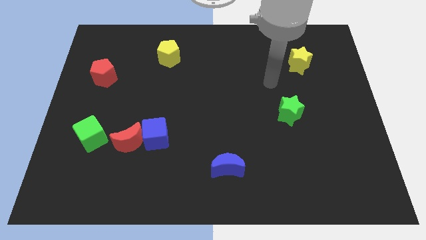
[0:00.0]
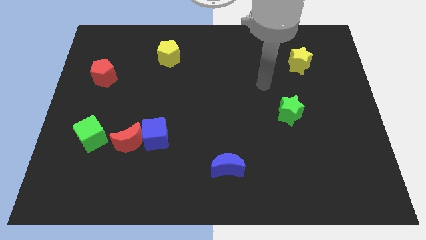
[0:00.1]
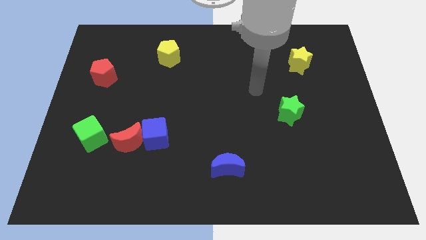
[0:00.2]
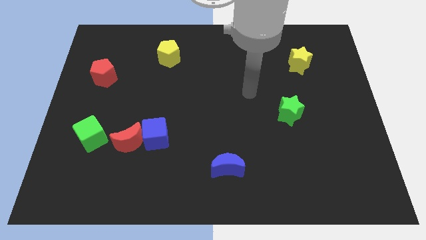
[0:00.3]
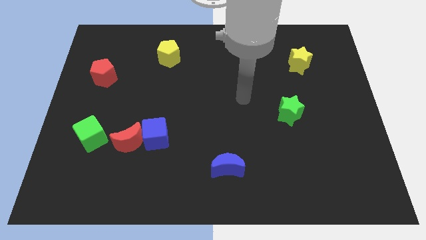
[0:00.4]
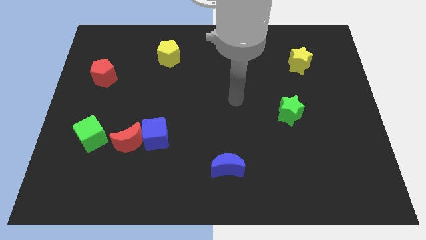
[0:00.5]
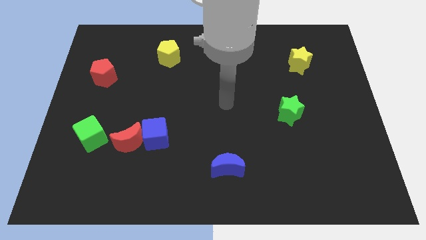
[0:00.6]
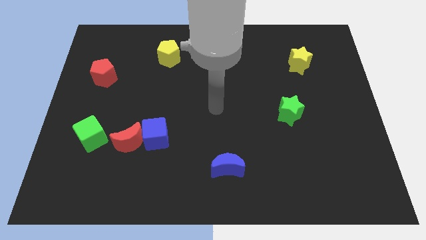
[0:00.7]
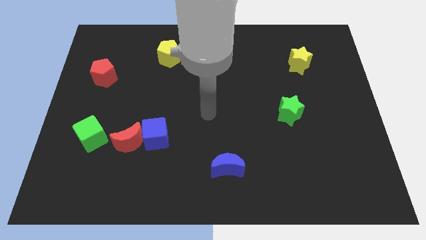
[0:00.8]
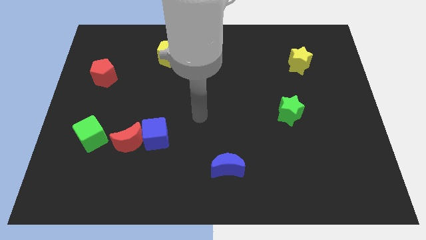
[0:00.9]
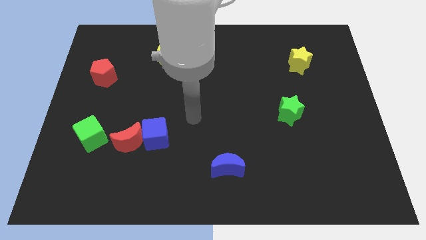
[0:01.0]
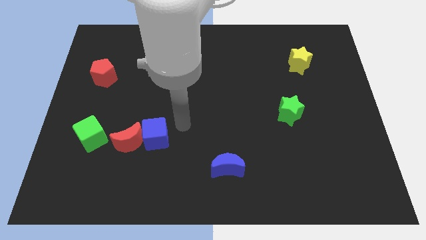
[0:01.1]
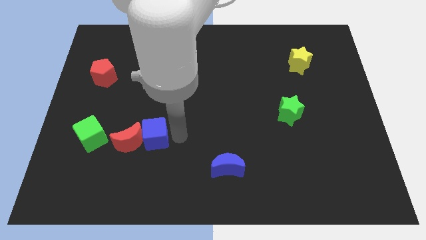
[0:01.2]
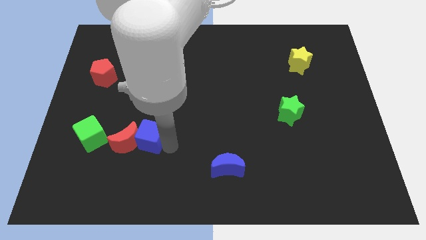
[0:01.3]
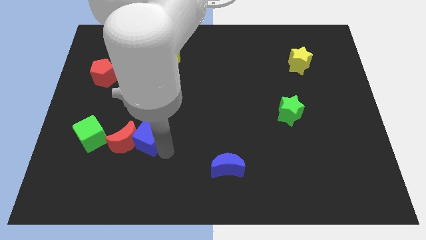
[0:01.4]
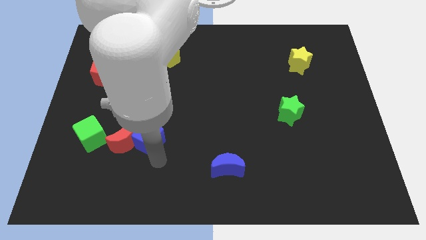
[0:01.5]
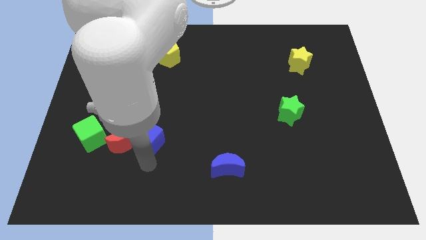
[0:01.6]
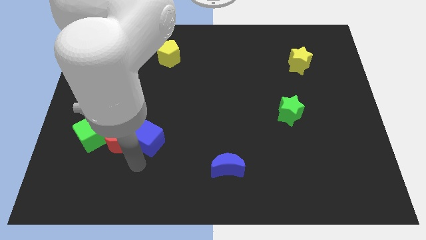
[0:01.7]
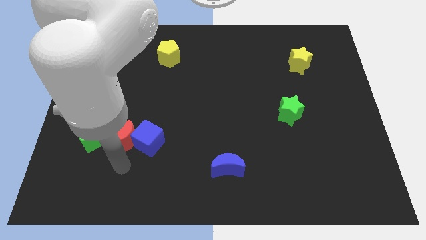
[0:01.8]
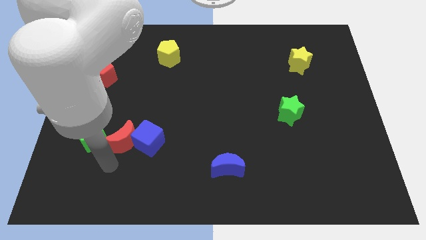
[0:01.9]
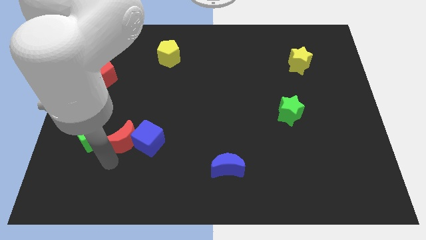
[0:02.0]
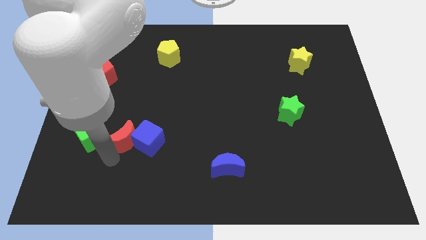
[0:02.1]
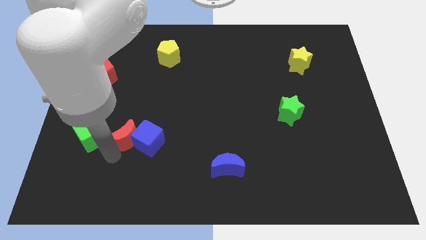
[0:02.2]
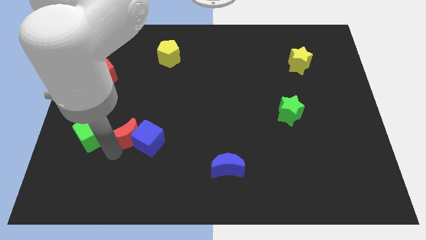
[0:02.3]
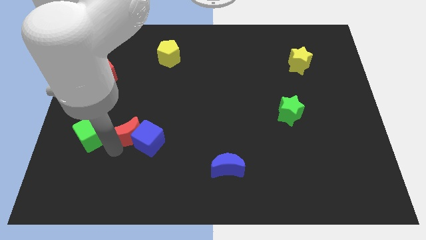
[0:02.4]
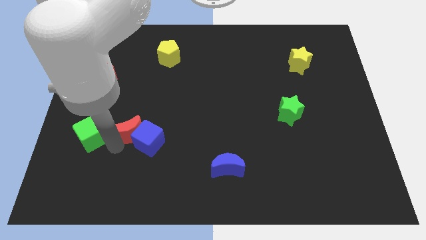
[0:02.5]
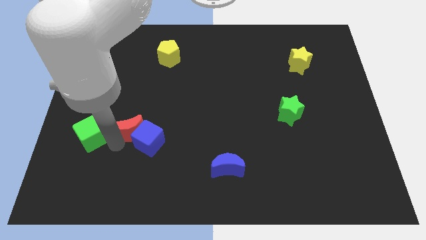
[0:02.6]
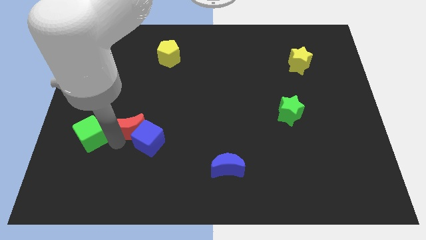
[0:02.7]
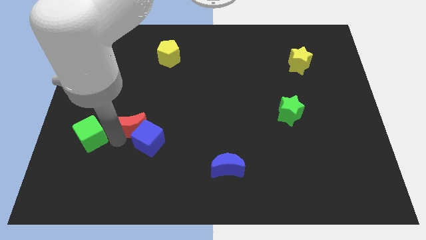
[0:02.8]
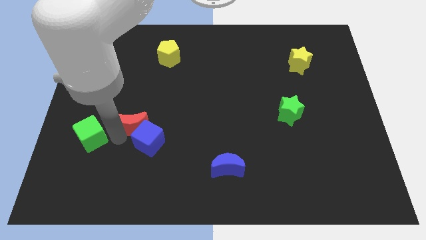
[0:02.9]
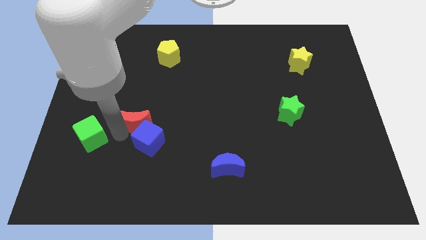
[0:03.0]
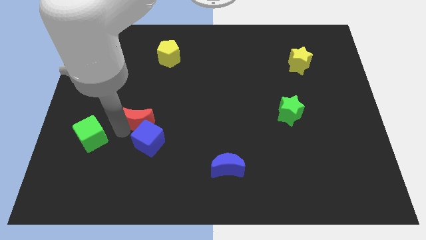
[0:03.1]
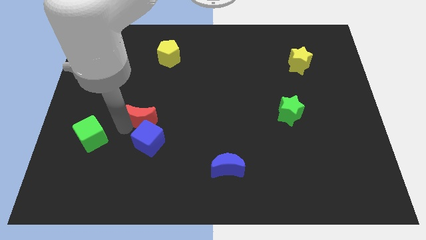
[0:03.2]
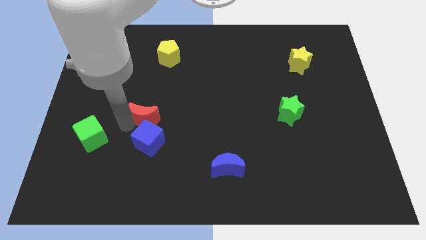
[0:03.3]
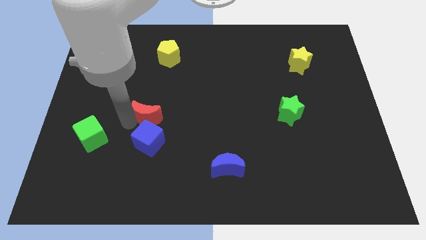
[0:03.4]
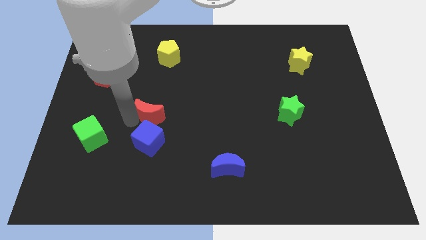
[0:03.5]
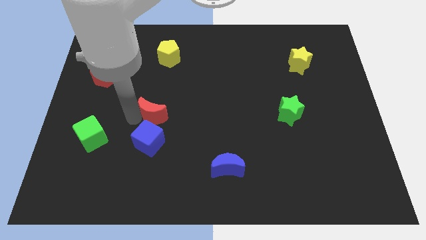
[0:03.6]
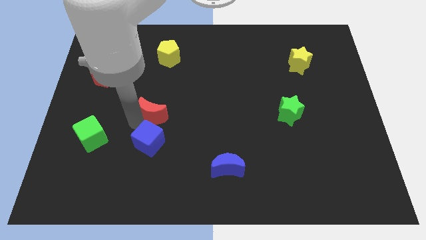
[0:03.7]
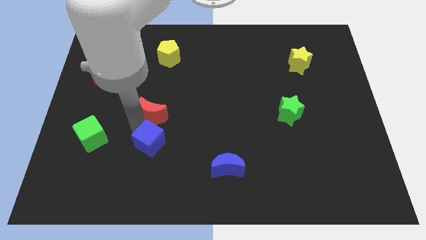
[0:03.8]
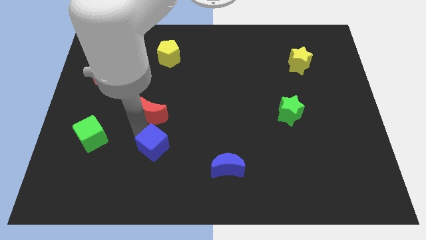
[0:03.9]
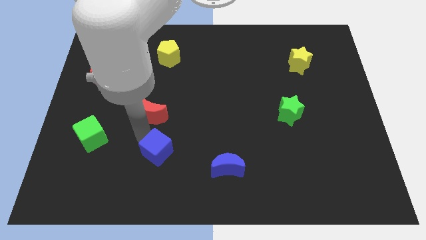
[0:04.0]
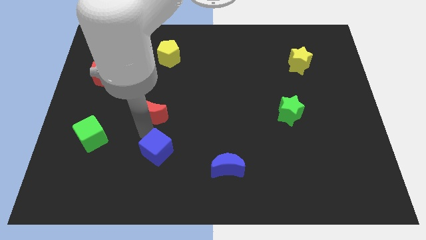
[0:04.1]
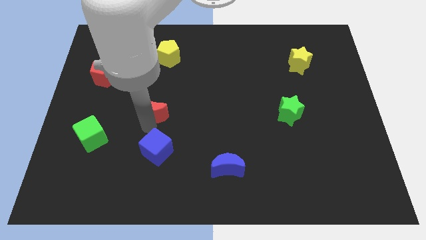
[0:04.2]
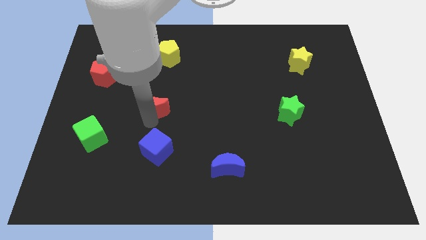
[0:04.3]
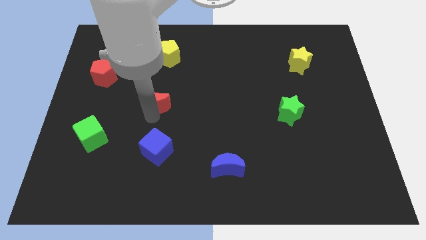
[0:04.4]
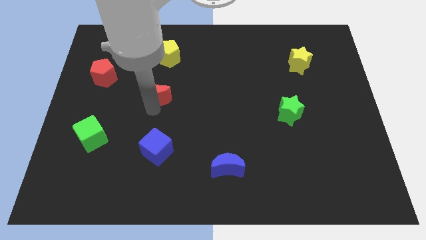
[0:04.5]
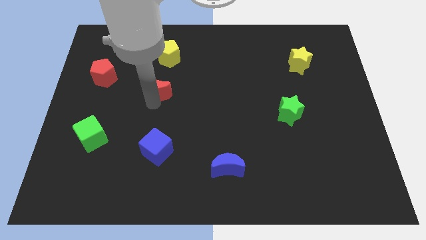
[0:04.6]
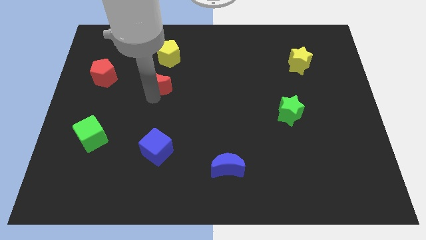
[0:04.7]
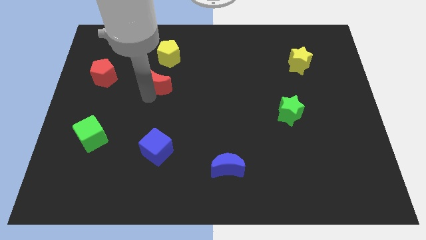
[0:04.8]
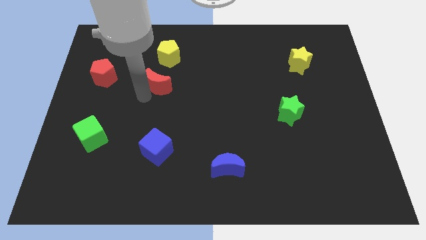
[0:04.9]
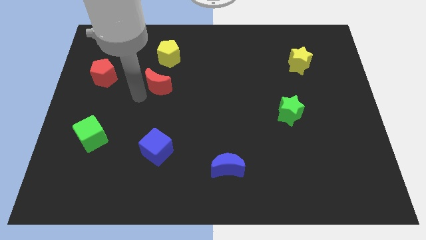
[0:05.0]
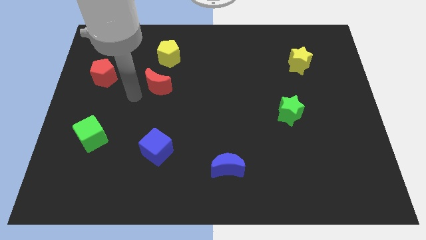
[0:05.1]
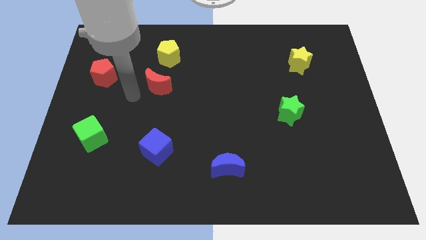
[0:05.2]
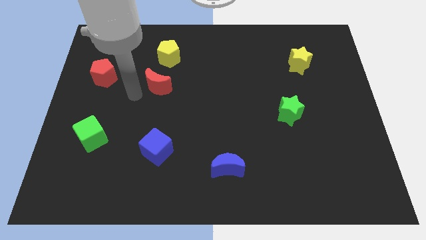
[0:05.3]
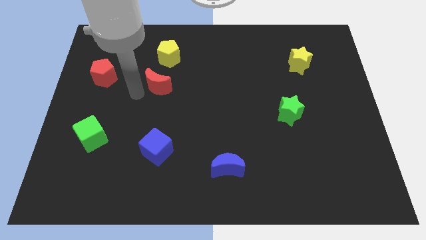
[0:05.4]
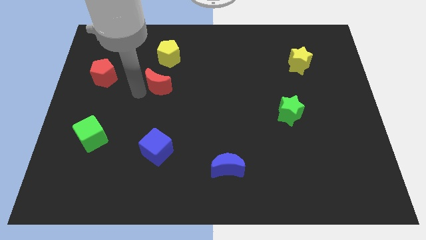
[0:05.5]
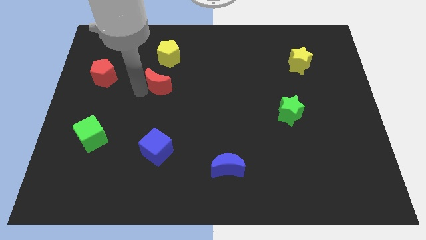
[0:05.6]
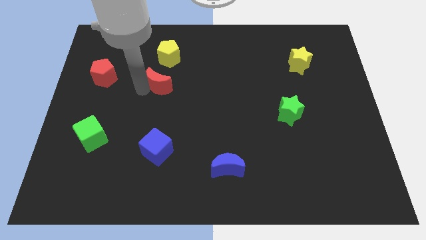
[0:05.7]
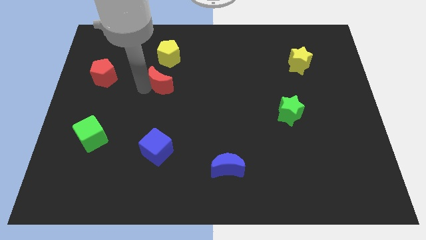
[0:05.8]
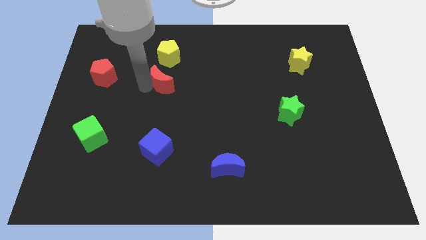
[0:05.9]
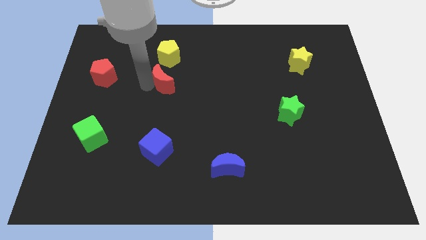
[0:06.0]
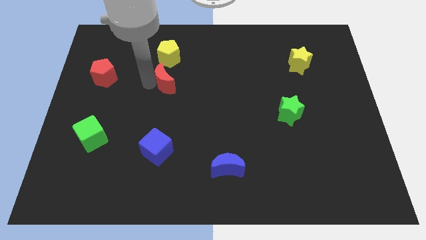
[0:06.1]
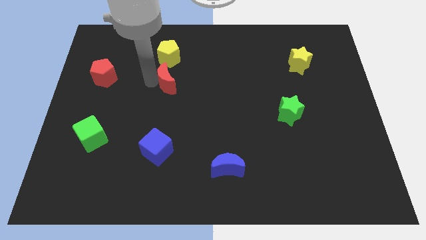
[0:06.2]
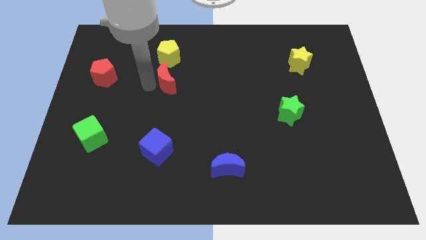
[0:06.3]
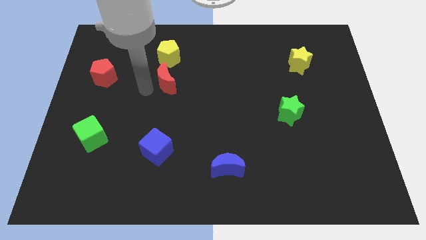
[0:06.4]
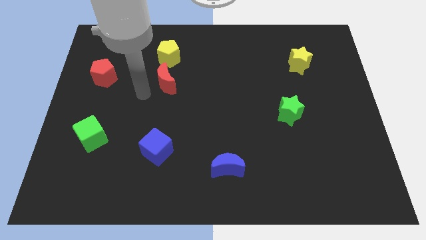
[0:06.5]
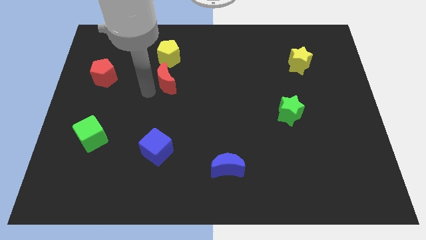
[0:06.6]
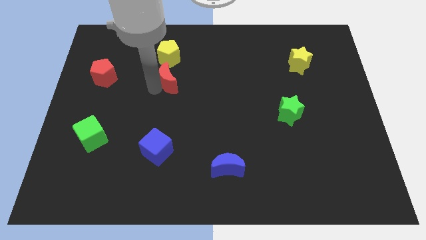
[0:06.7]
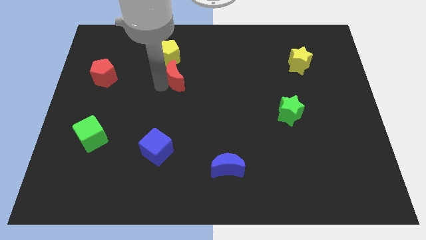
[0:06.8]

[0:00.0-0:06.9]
put the red moon diagonally down and to the right of the yellow pentagon
